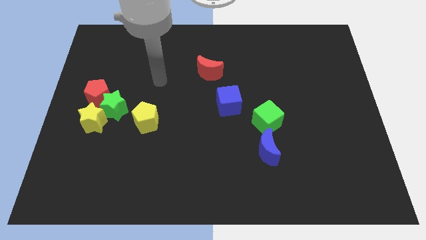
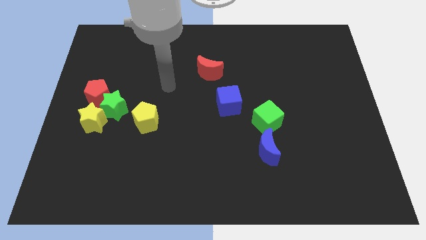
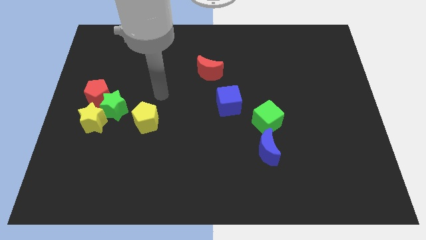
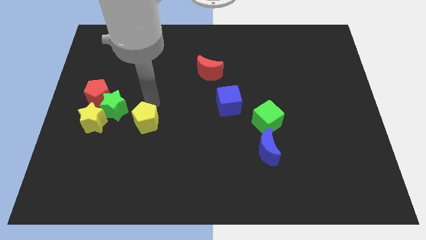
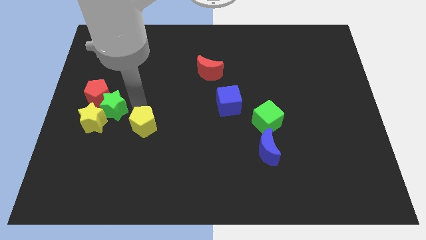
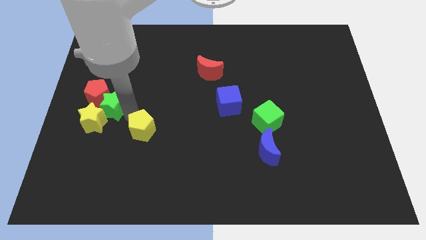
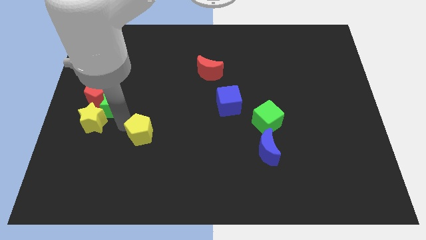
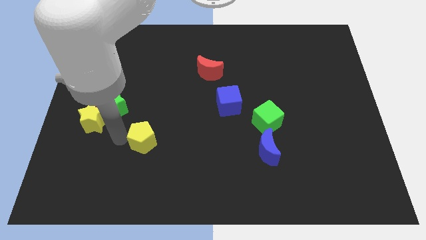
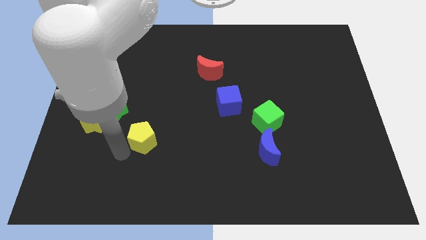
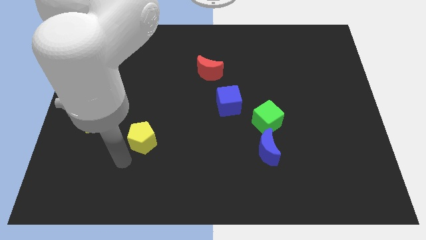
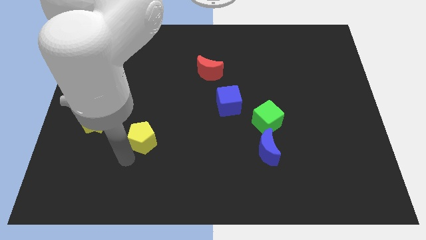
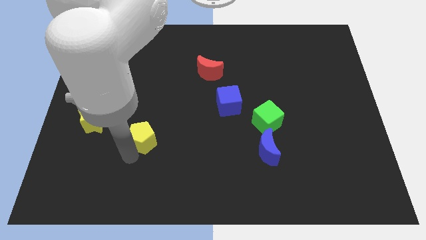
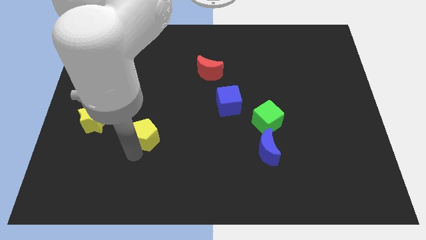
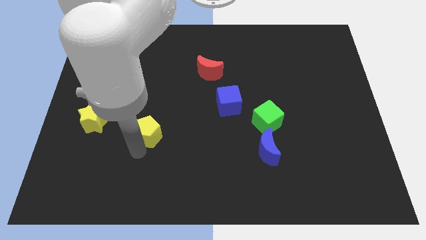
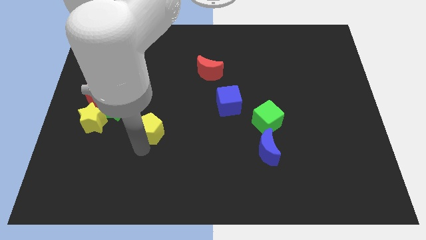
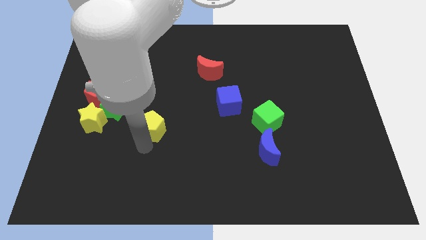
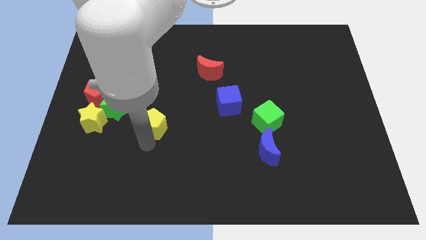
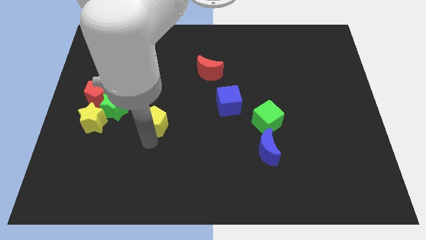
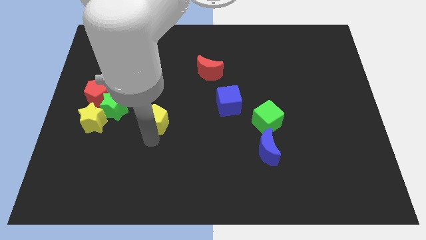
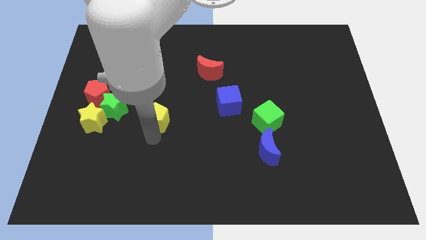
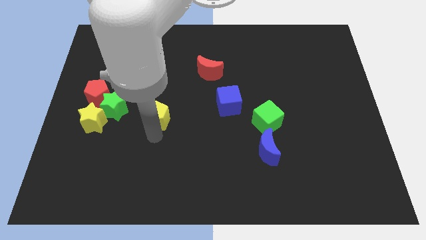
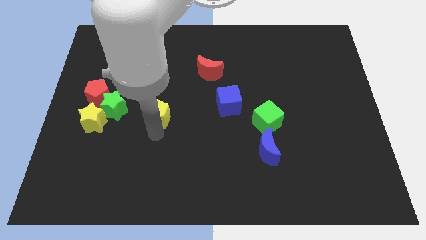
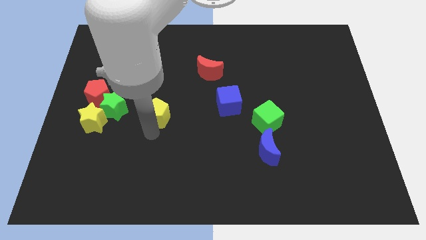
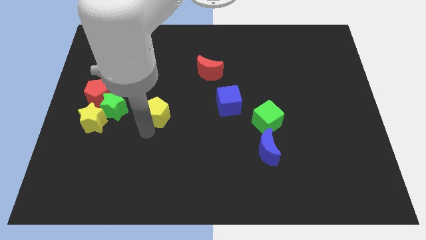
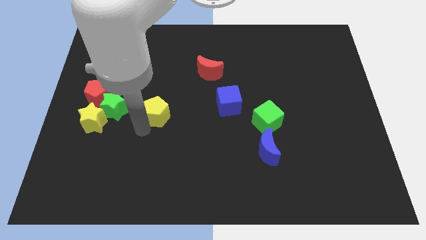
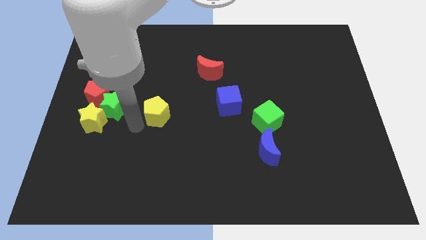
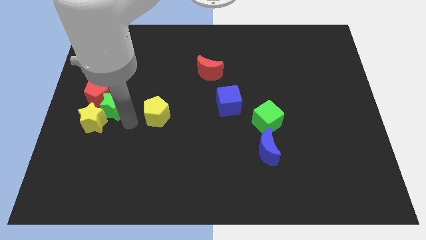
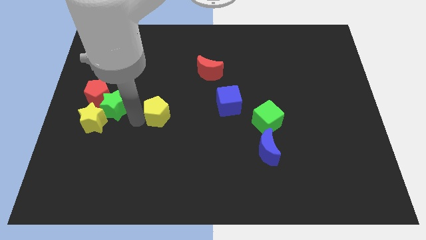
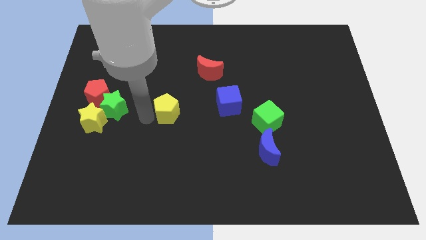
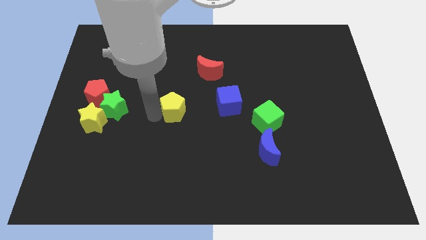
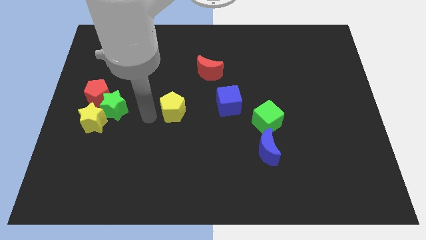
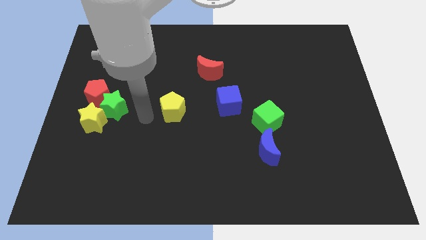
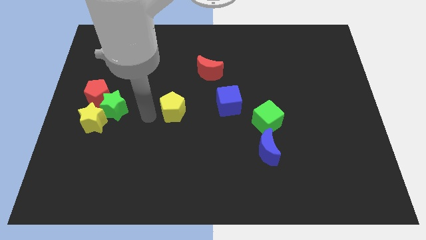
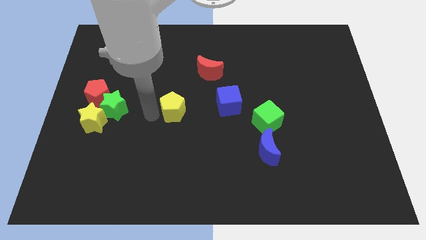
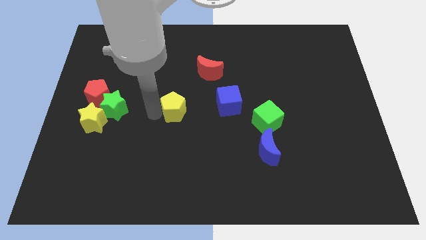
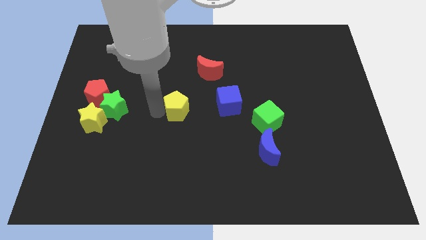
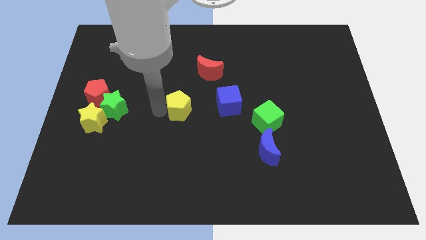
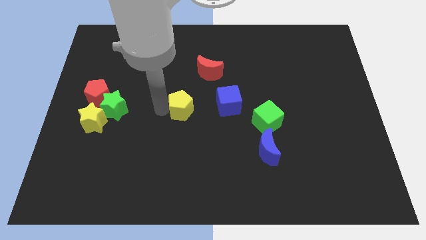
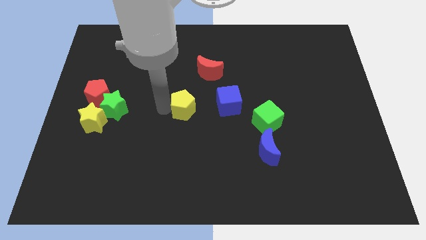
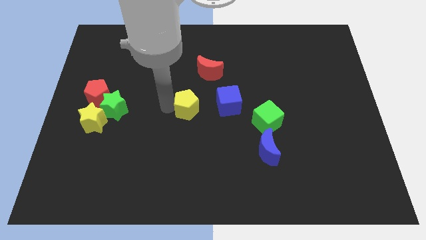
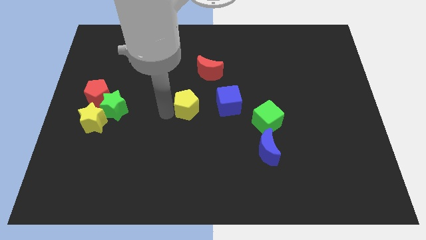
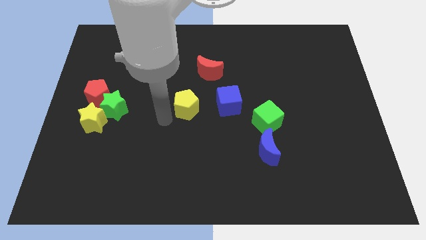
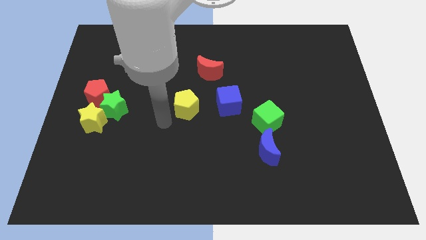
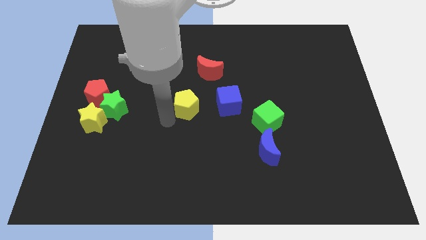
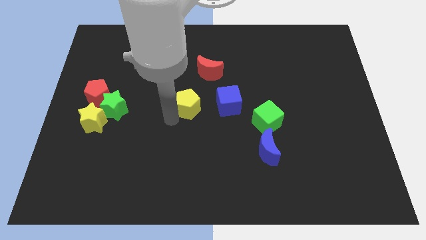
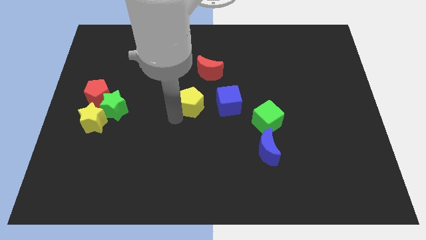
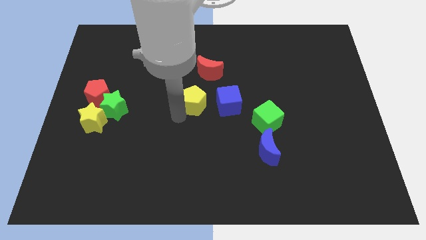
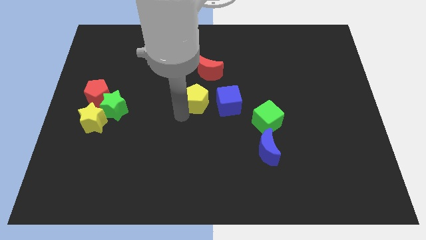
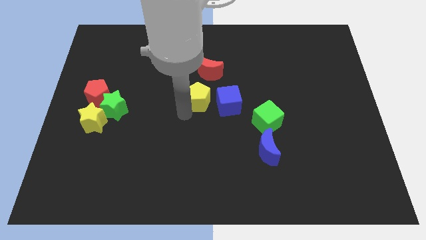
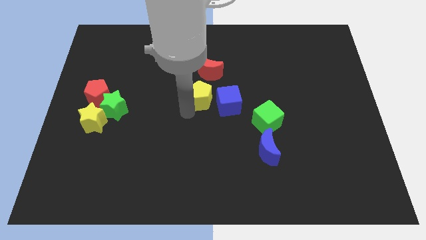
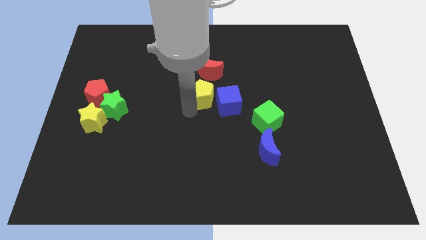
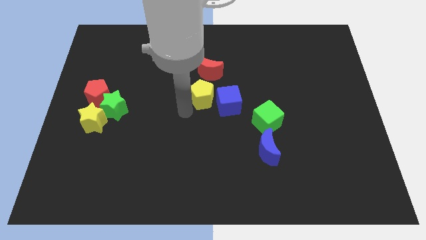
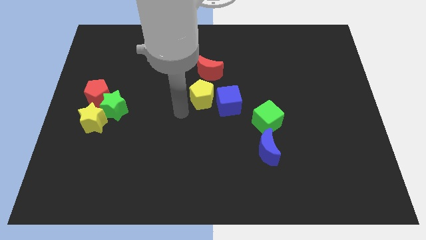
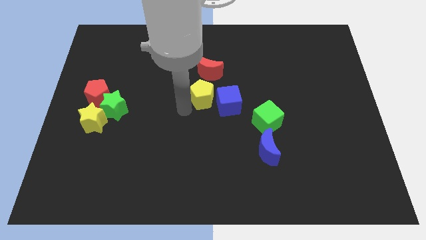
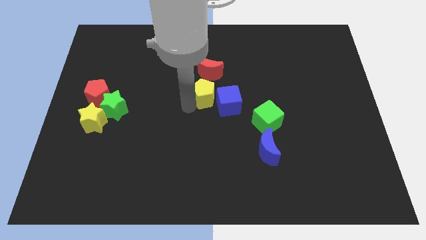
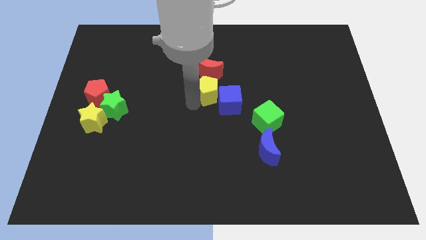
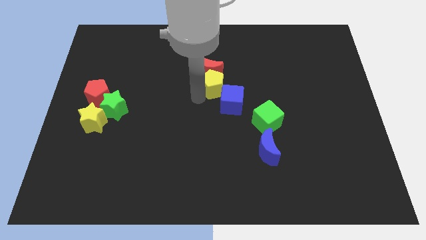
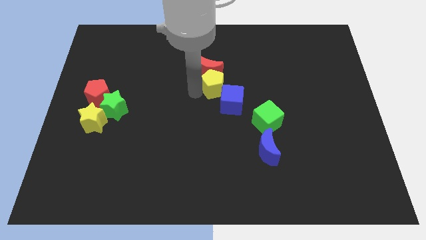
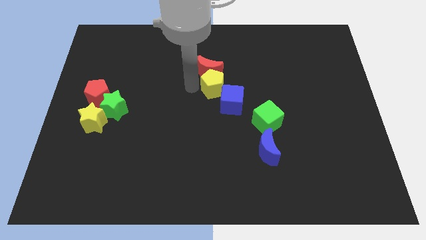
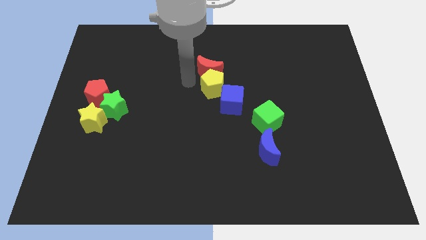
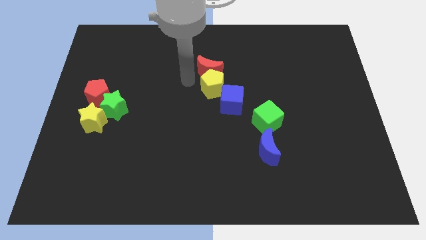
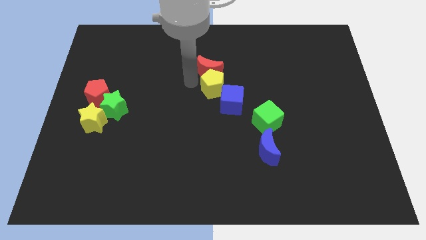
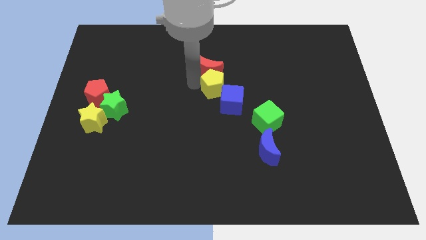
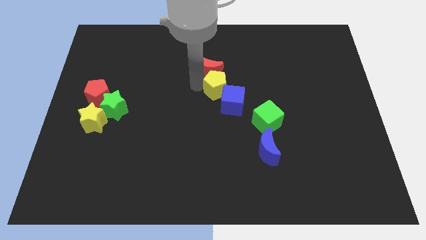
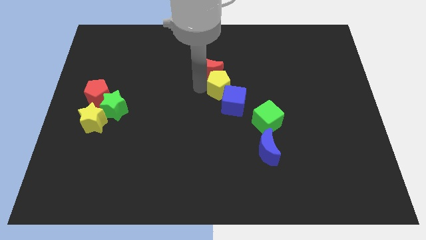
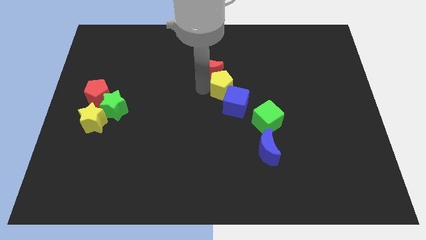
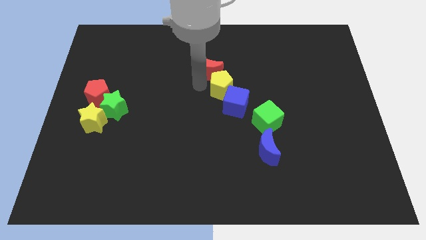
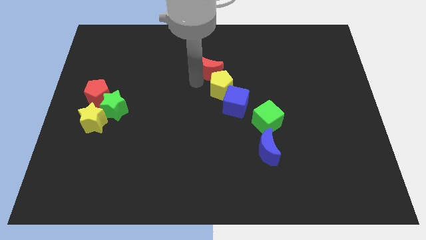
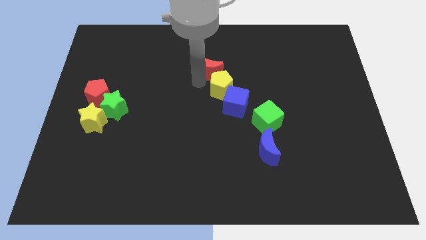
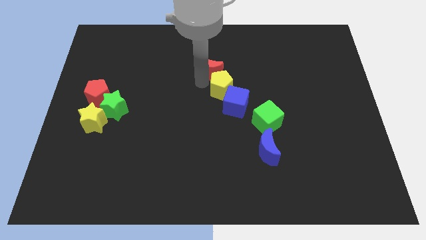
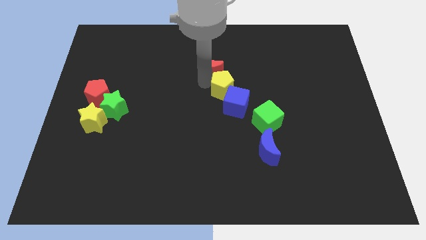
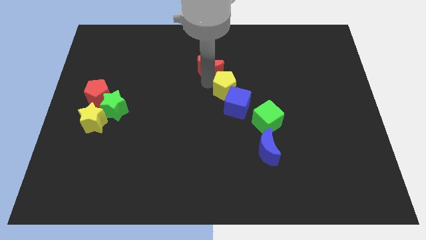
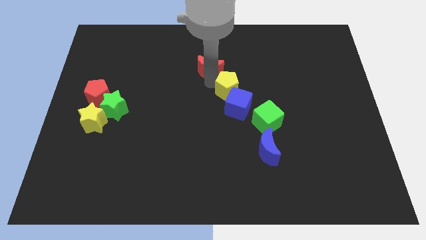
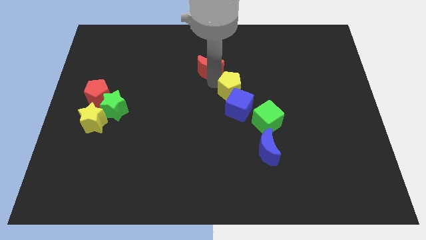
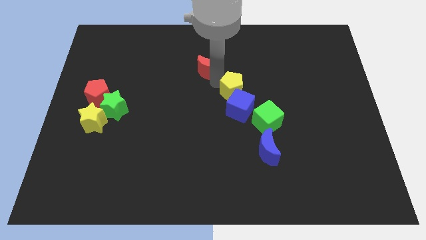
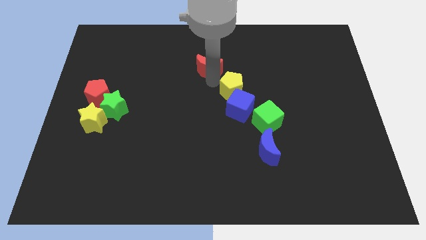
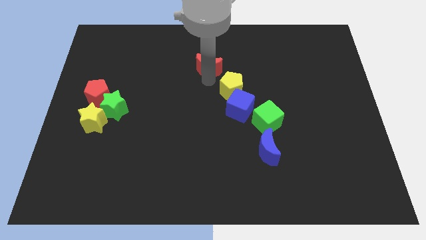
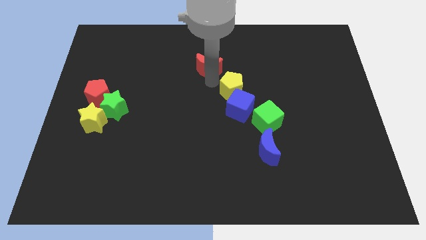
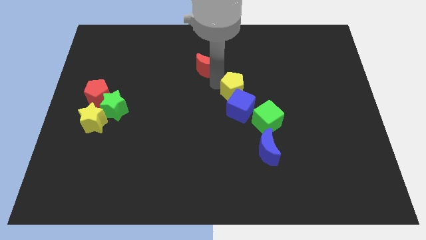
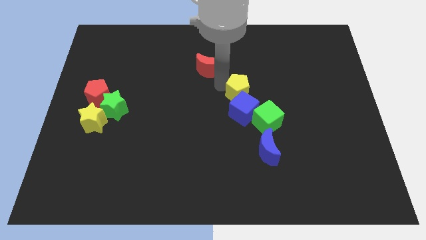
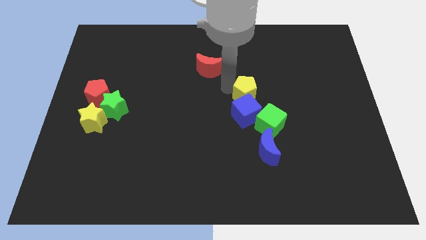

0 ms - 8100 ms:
move the yellow pentagon right
